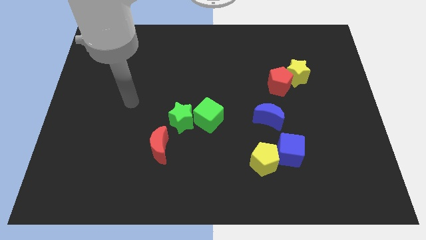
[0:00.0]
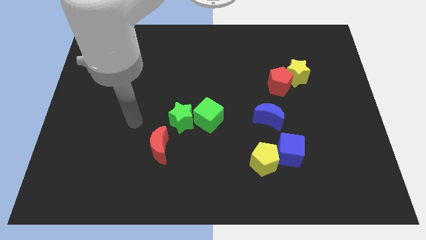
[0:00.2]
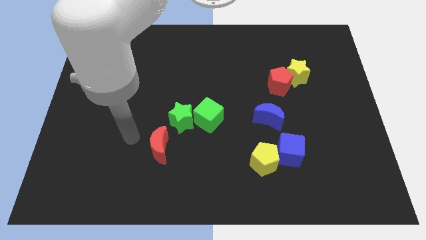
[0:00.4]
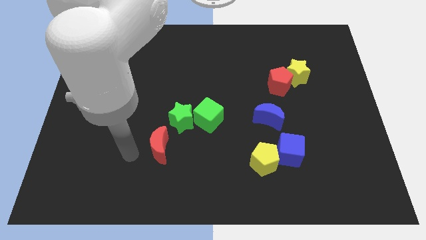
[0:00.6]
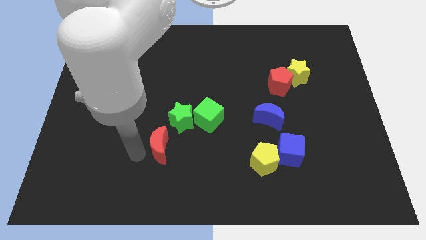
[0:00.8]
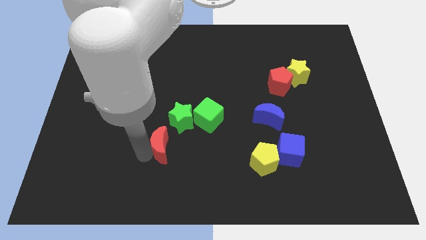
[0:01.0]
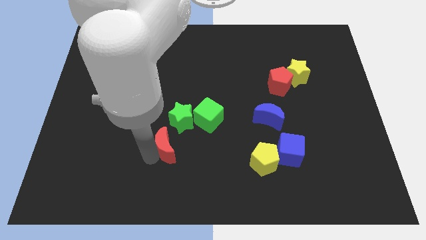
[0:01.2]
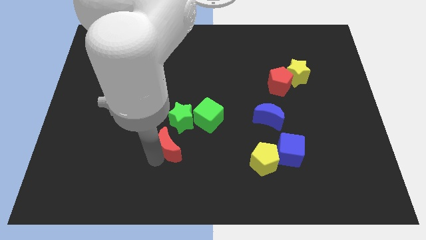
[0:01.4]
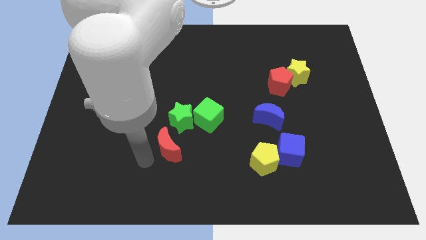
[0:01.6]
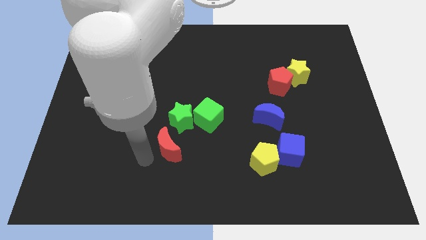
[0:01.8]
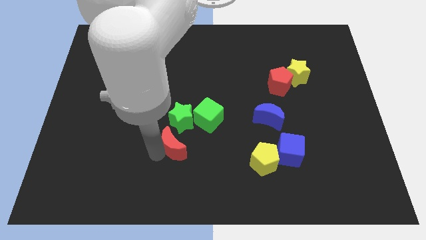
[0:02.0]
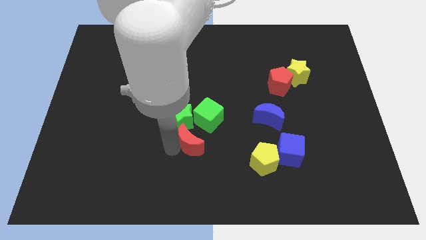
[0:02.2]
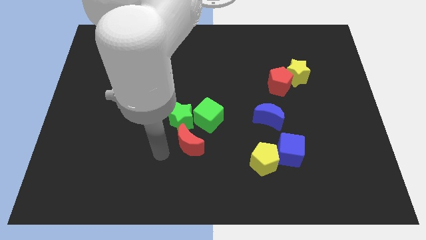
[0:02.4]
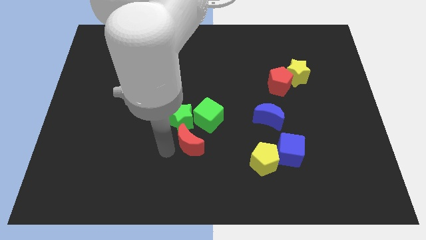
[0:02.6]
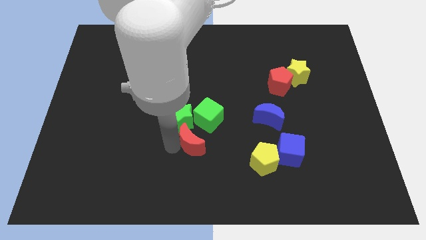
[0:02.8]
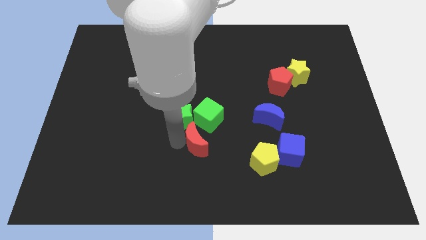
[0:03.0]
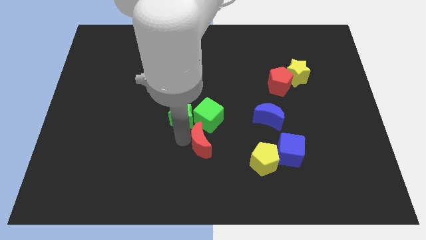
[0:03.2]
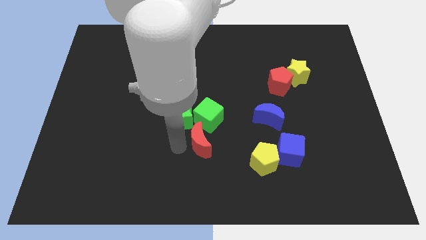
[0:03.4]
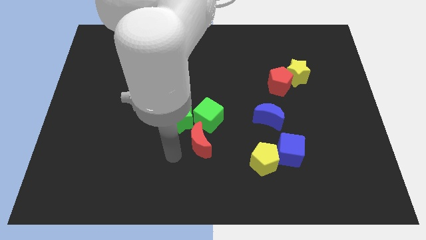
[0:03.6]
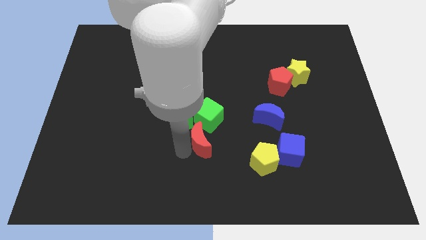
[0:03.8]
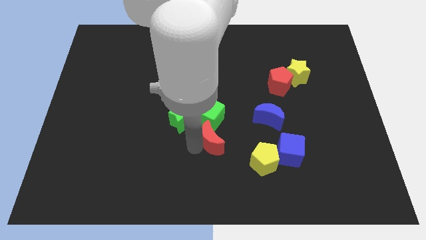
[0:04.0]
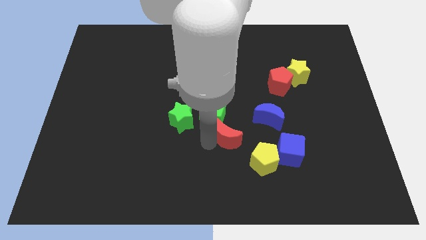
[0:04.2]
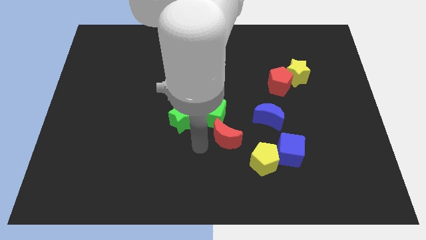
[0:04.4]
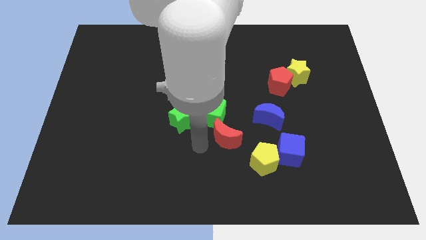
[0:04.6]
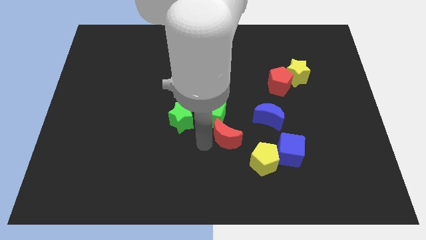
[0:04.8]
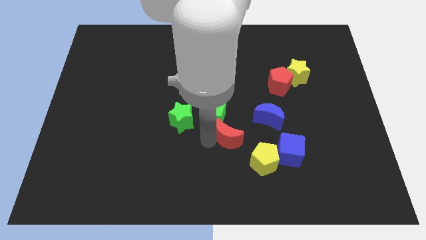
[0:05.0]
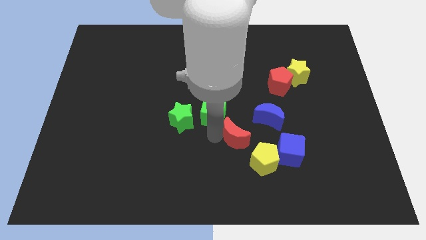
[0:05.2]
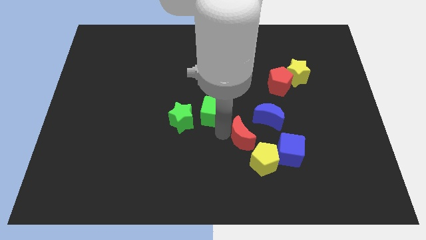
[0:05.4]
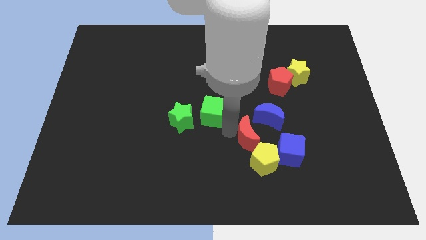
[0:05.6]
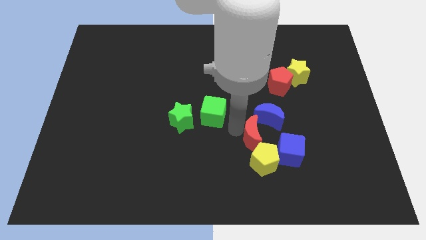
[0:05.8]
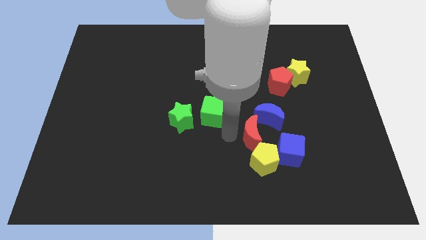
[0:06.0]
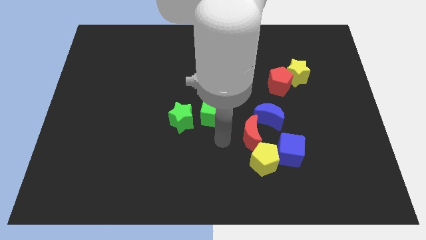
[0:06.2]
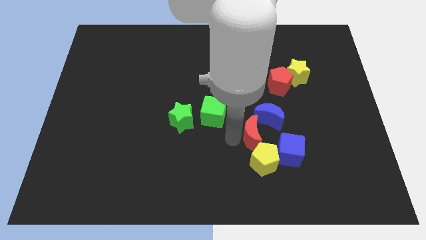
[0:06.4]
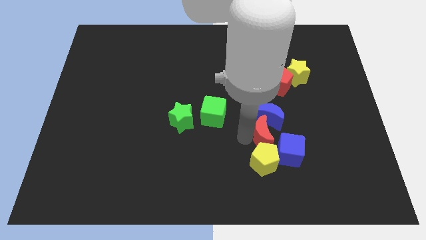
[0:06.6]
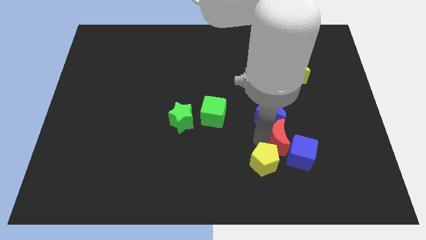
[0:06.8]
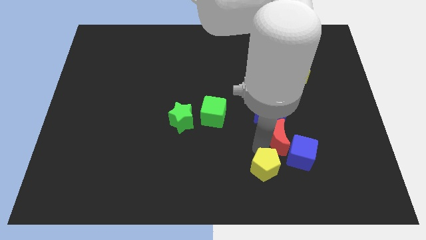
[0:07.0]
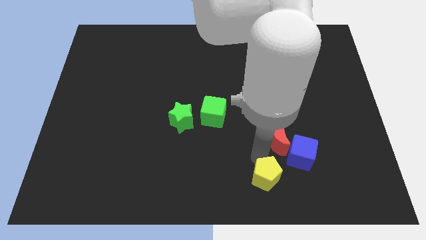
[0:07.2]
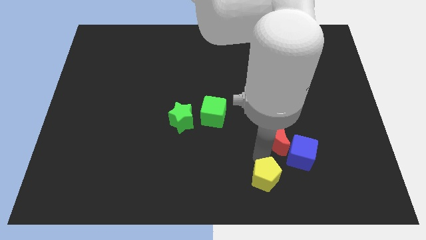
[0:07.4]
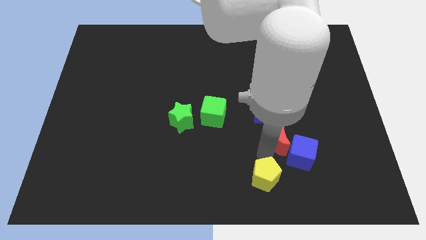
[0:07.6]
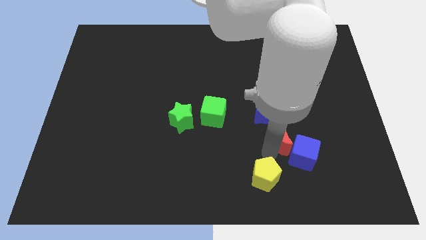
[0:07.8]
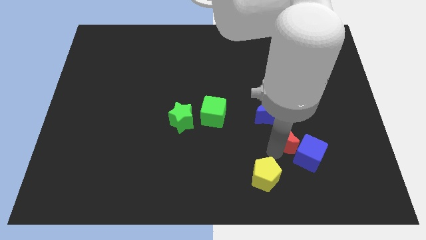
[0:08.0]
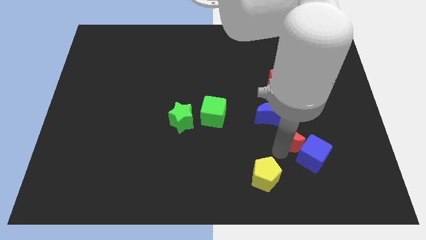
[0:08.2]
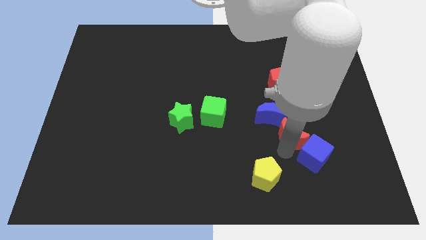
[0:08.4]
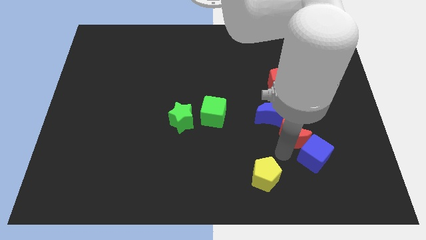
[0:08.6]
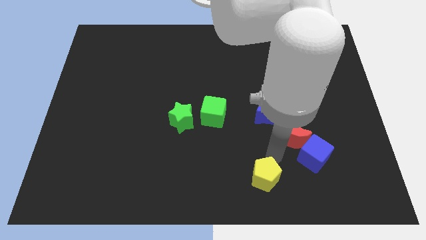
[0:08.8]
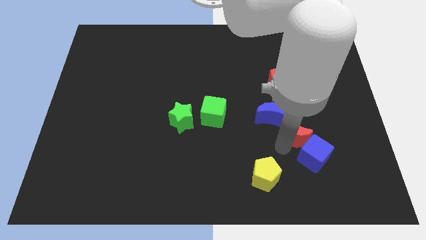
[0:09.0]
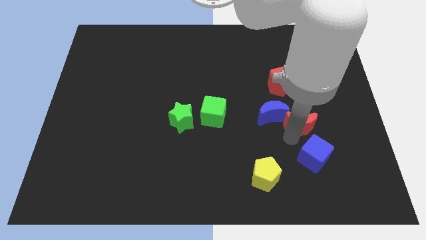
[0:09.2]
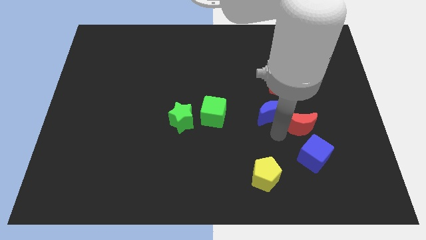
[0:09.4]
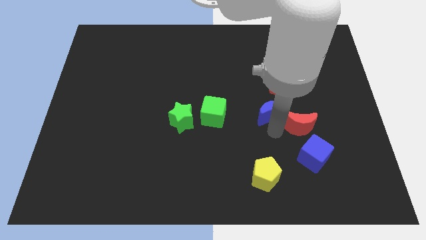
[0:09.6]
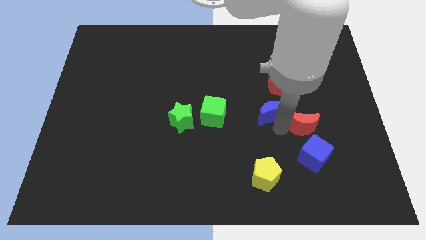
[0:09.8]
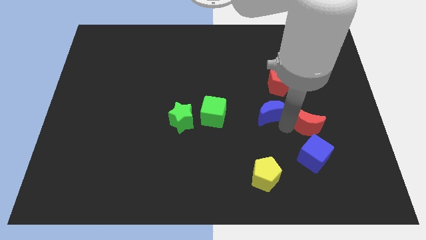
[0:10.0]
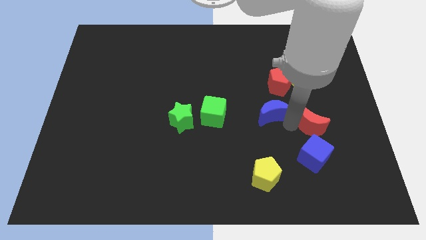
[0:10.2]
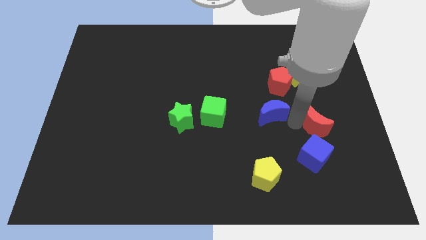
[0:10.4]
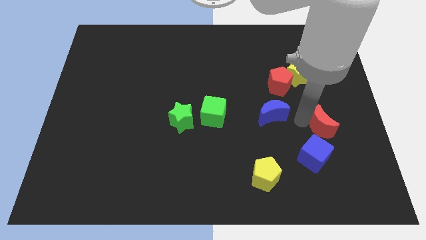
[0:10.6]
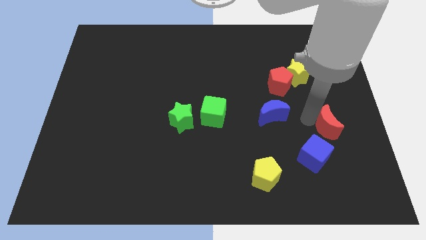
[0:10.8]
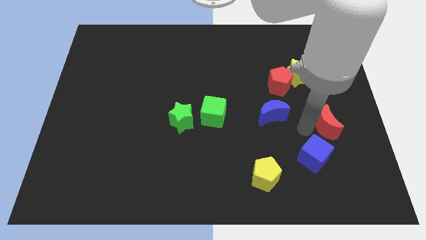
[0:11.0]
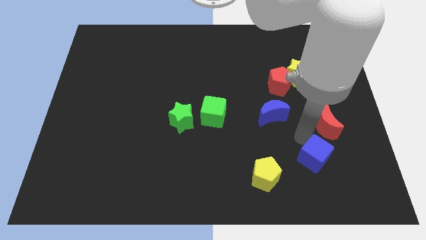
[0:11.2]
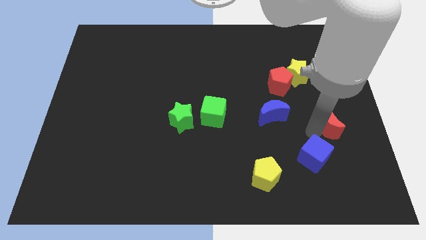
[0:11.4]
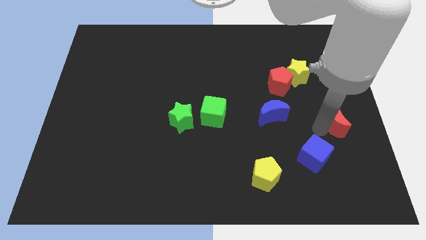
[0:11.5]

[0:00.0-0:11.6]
slide the red moon to the right side of the board

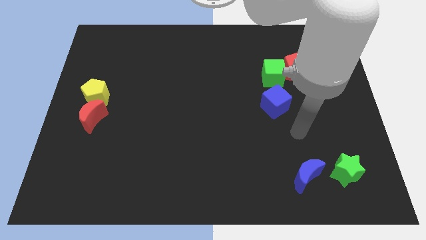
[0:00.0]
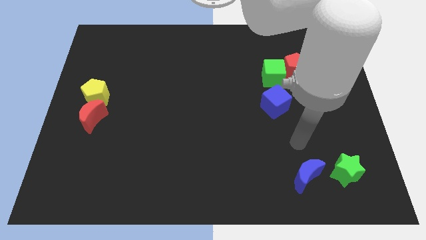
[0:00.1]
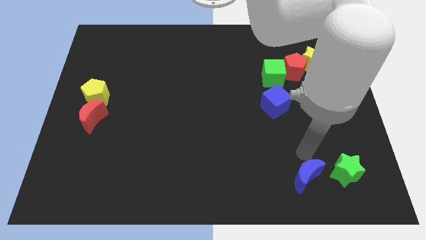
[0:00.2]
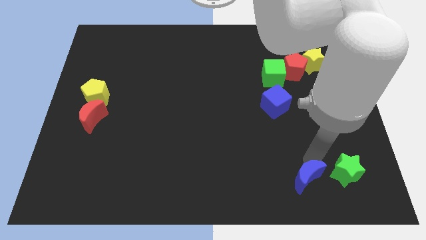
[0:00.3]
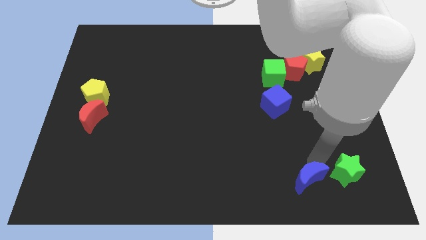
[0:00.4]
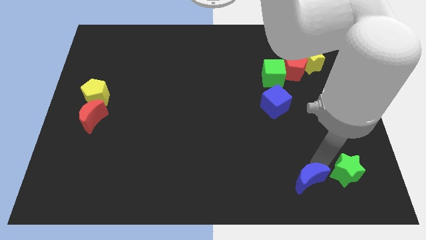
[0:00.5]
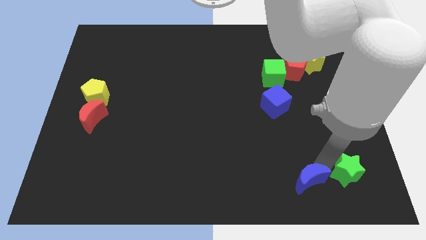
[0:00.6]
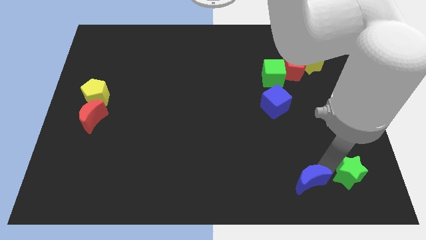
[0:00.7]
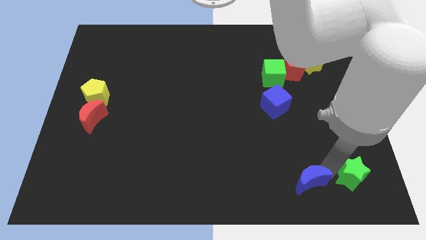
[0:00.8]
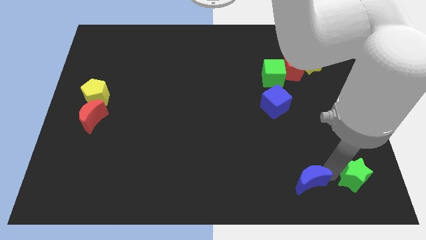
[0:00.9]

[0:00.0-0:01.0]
put the green star to the bottom right of the board
